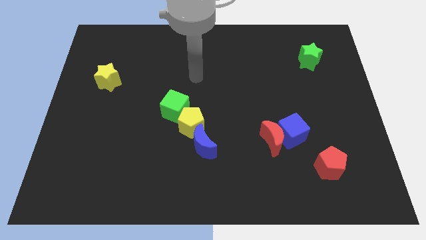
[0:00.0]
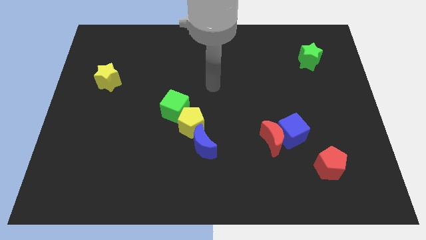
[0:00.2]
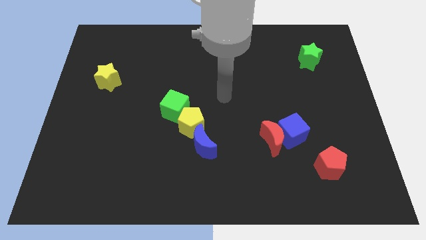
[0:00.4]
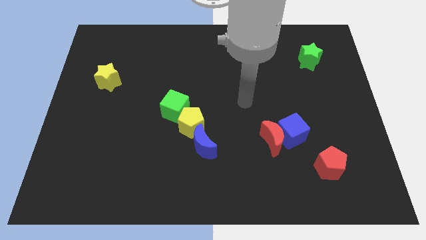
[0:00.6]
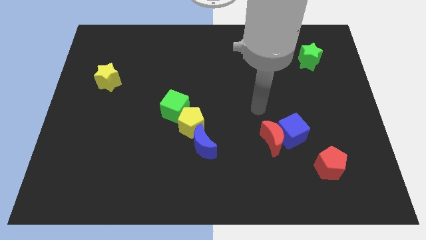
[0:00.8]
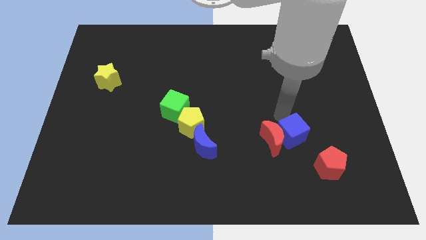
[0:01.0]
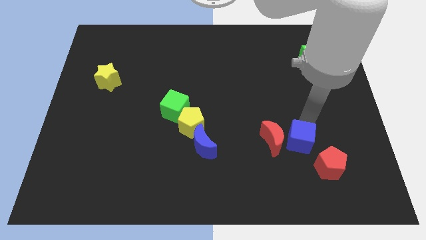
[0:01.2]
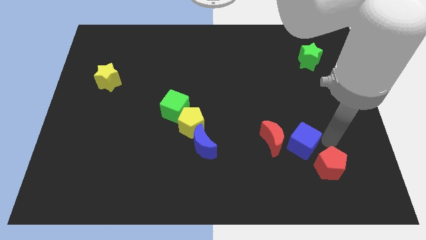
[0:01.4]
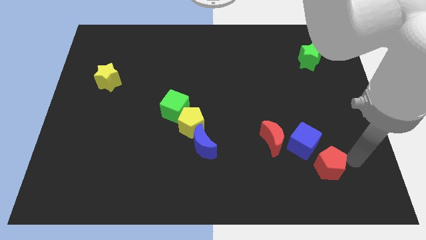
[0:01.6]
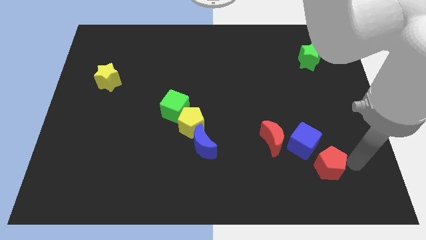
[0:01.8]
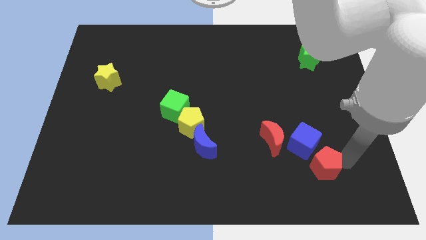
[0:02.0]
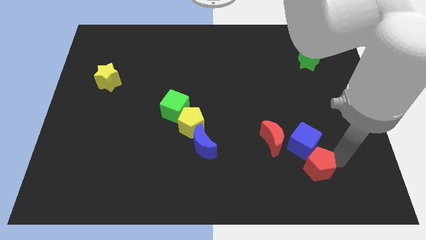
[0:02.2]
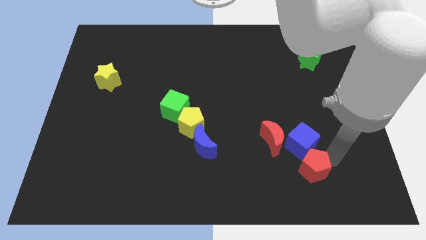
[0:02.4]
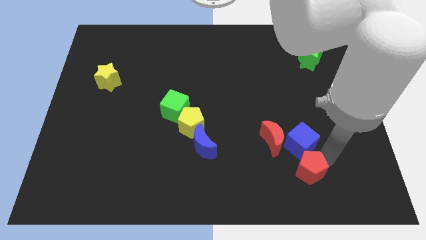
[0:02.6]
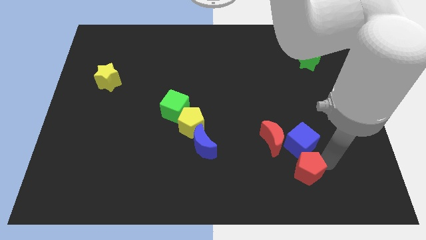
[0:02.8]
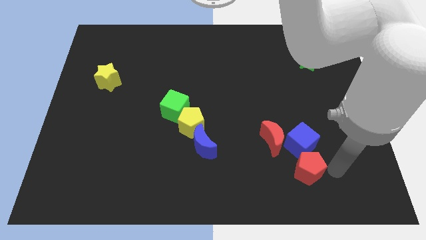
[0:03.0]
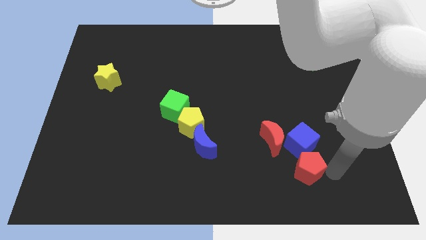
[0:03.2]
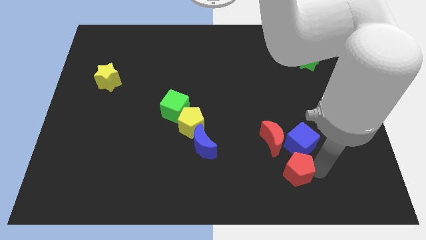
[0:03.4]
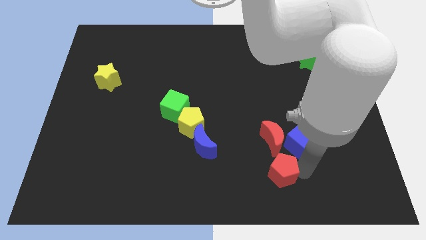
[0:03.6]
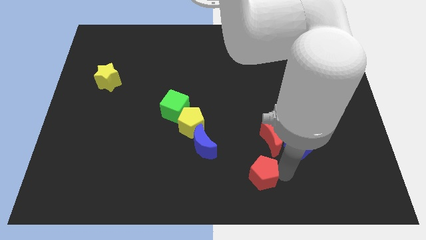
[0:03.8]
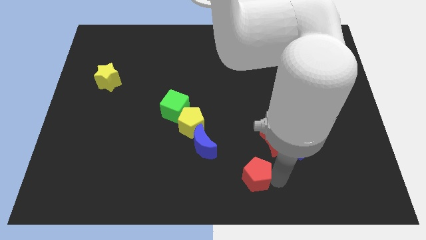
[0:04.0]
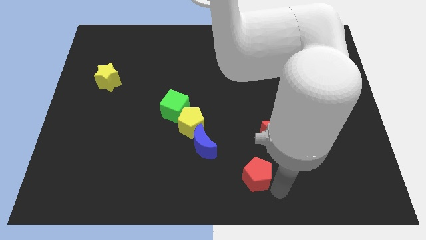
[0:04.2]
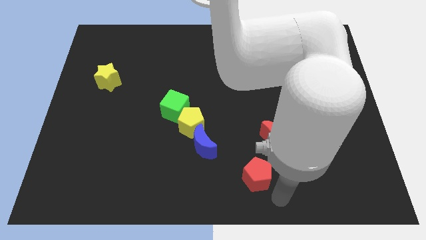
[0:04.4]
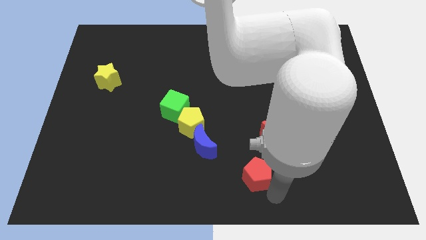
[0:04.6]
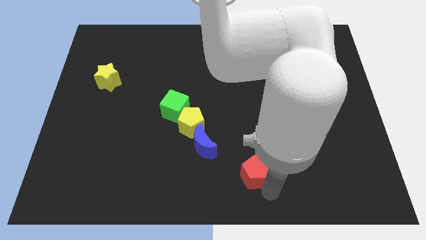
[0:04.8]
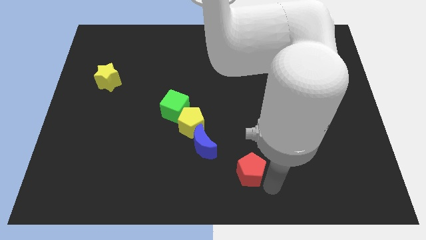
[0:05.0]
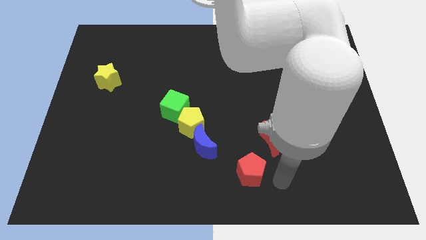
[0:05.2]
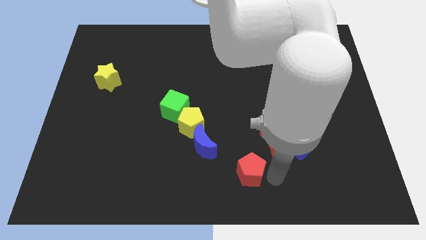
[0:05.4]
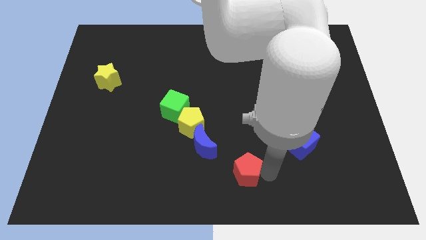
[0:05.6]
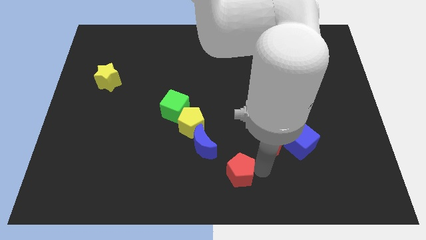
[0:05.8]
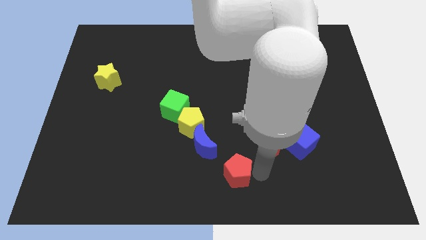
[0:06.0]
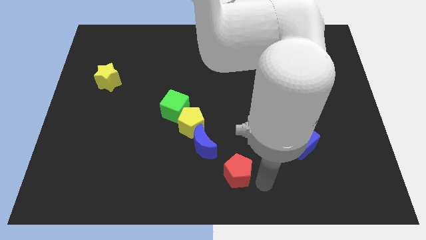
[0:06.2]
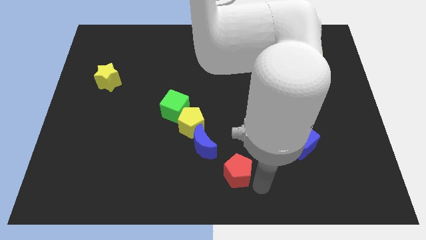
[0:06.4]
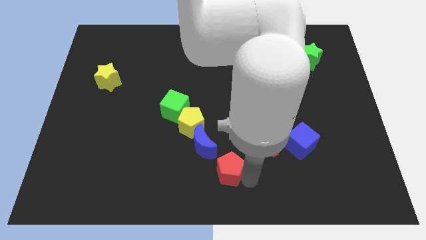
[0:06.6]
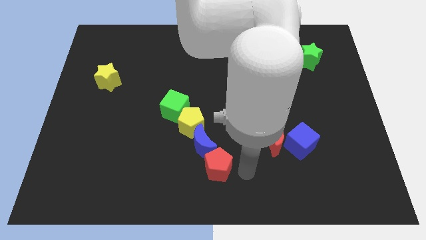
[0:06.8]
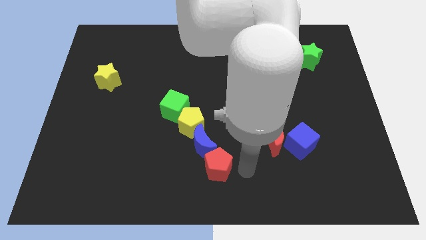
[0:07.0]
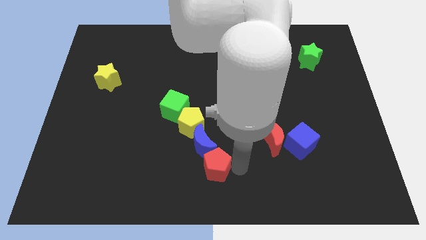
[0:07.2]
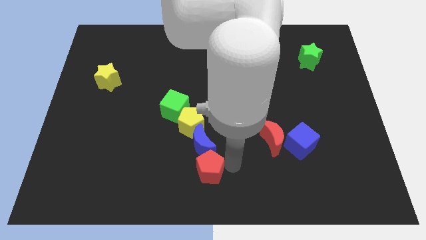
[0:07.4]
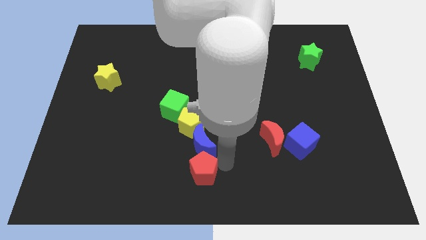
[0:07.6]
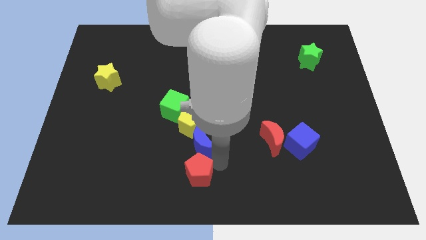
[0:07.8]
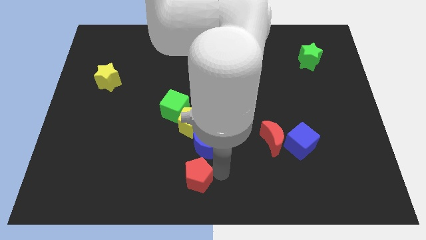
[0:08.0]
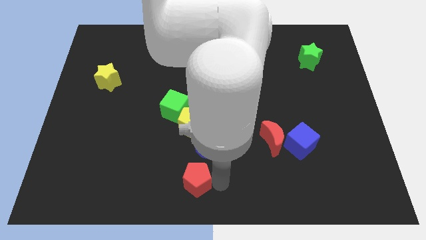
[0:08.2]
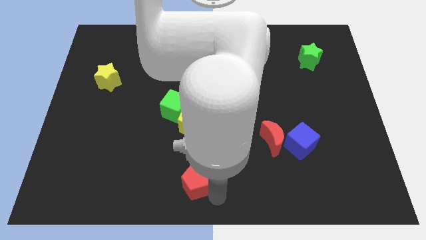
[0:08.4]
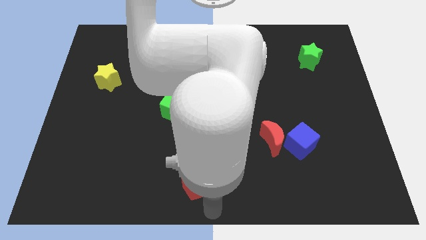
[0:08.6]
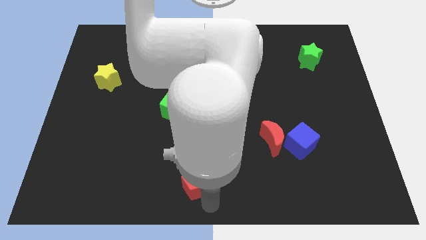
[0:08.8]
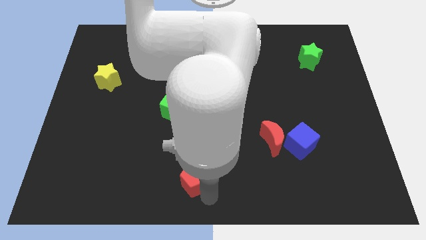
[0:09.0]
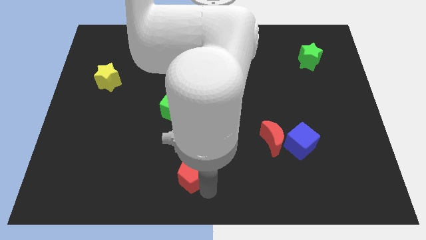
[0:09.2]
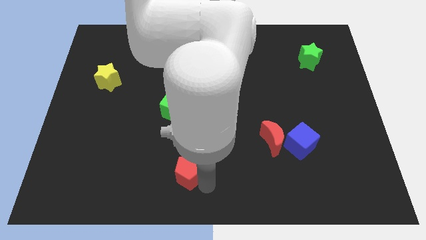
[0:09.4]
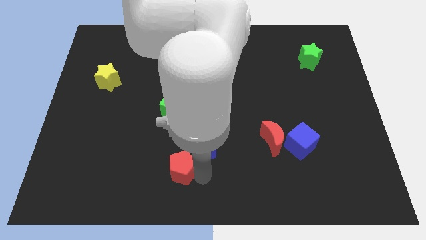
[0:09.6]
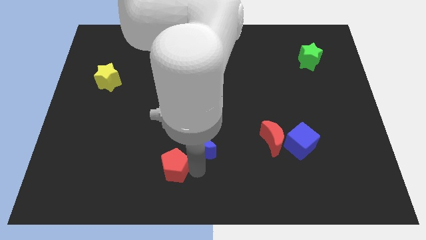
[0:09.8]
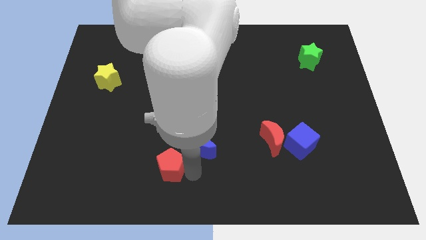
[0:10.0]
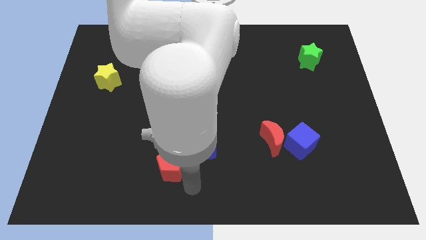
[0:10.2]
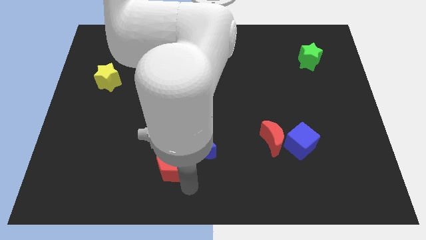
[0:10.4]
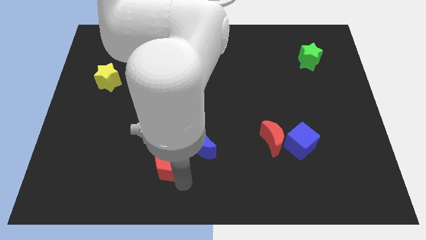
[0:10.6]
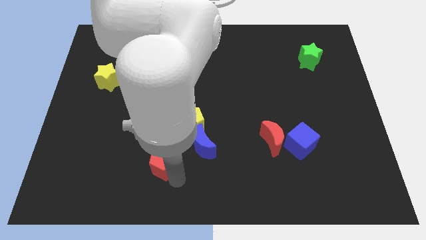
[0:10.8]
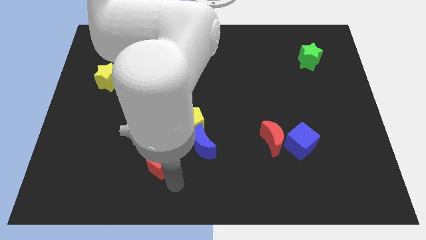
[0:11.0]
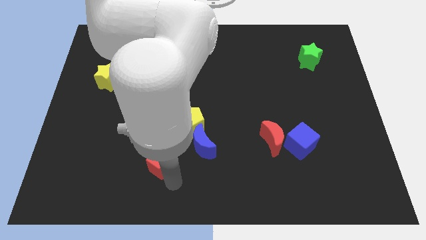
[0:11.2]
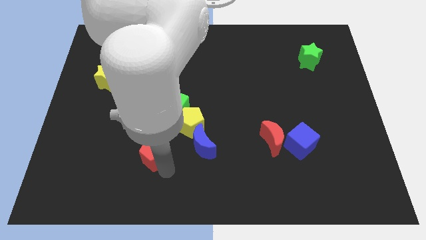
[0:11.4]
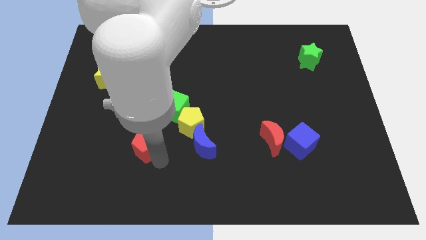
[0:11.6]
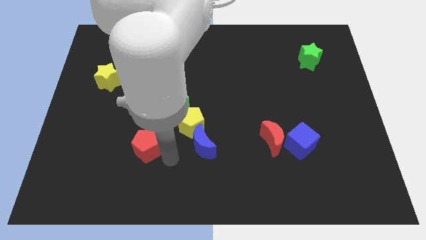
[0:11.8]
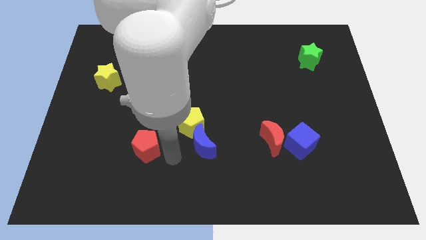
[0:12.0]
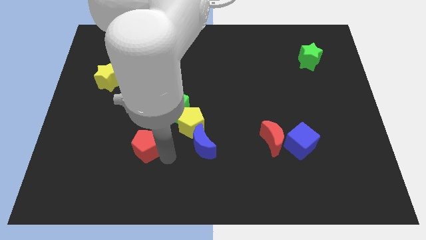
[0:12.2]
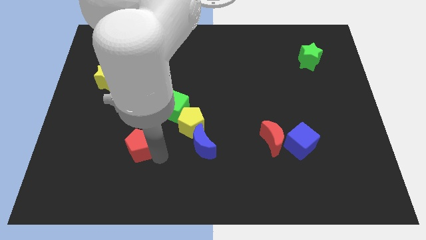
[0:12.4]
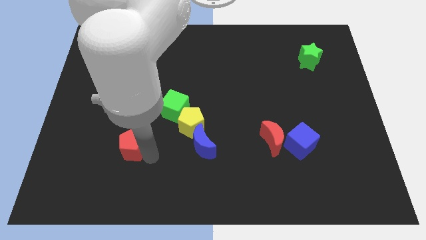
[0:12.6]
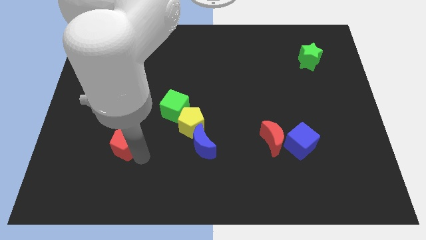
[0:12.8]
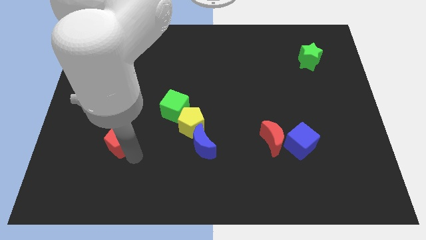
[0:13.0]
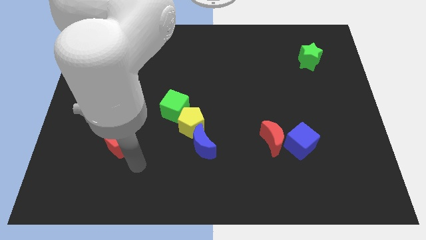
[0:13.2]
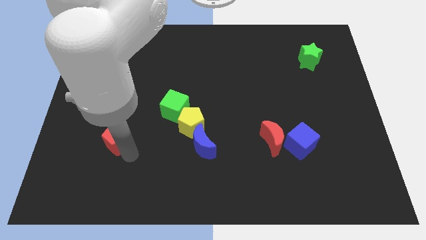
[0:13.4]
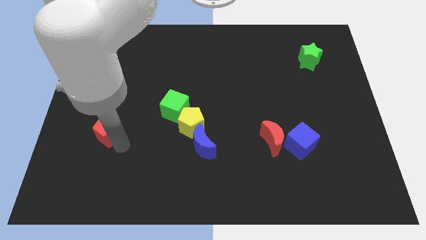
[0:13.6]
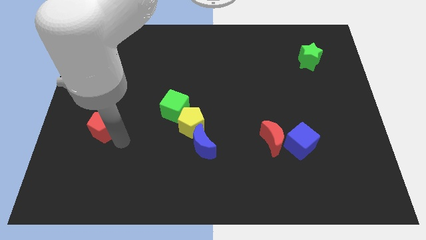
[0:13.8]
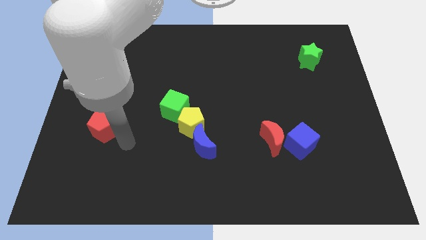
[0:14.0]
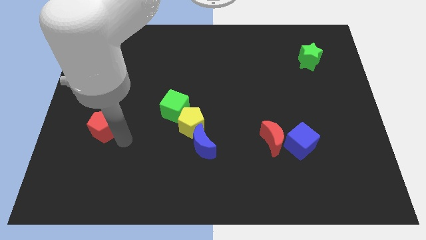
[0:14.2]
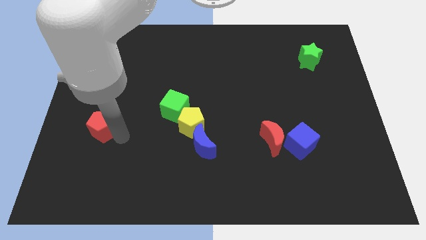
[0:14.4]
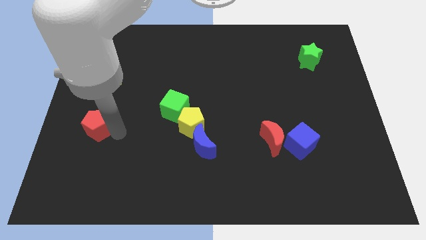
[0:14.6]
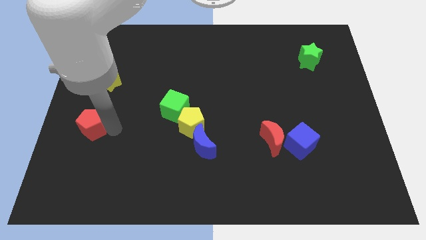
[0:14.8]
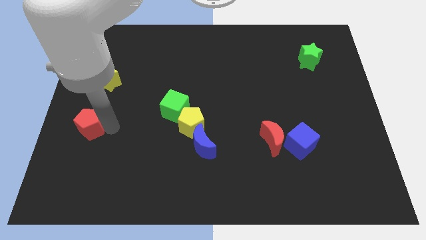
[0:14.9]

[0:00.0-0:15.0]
put the red pentagon to the left side
